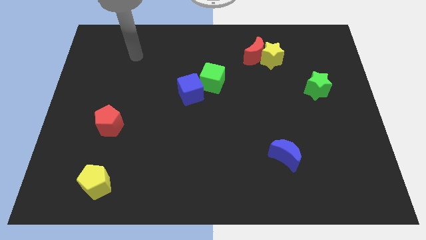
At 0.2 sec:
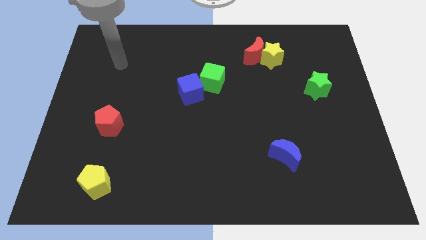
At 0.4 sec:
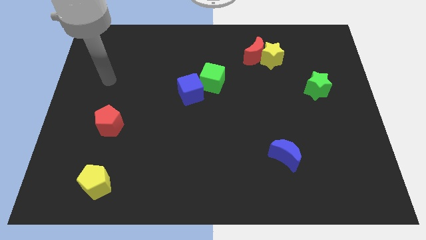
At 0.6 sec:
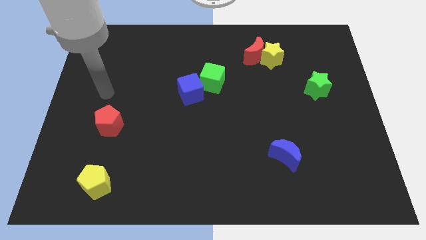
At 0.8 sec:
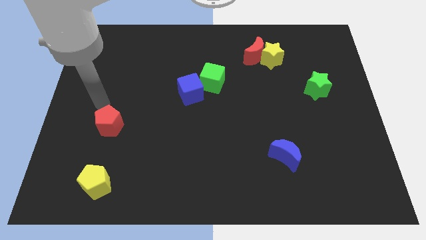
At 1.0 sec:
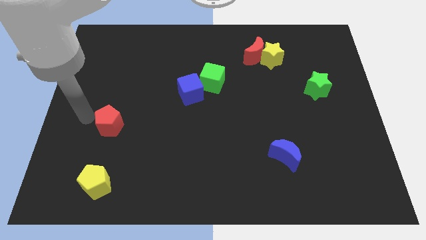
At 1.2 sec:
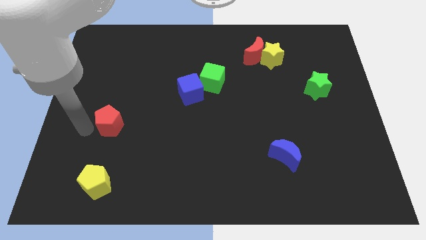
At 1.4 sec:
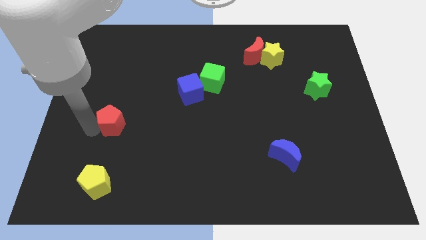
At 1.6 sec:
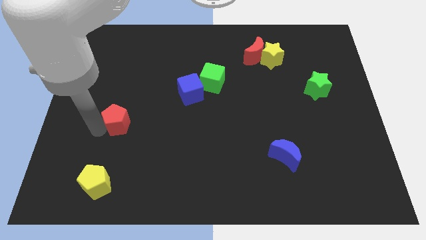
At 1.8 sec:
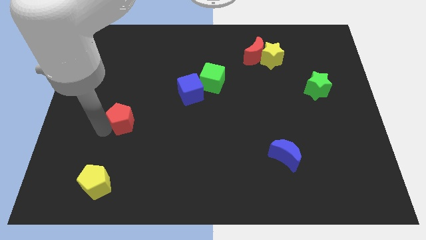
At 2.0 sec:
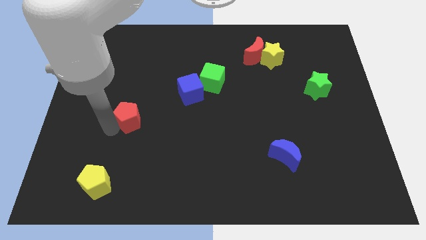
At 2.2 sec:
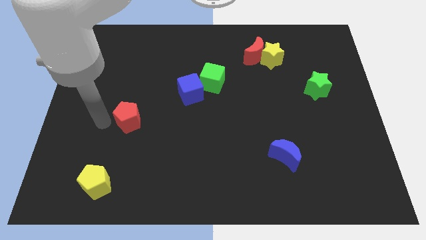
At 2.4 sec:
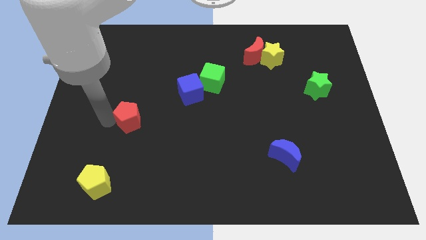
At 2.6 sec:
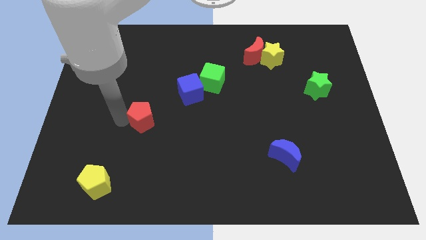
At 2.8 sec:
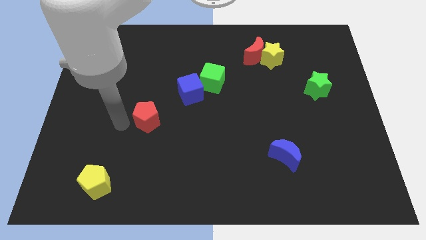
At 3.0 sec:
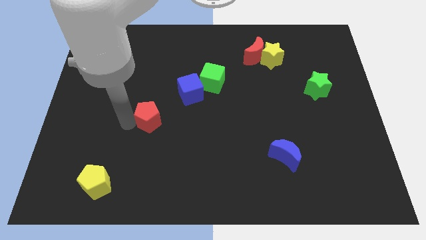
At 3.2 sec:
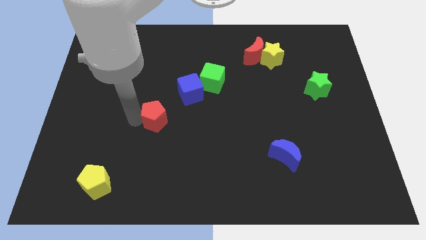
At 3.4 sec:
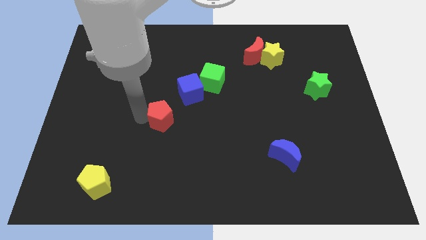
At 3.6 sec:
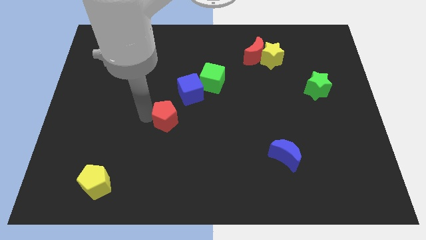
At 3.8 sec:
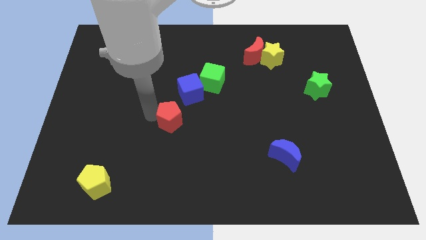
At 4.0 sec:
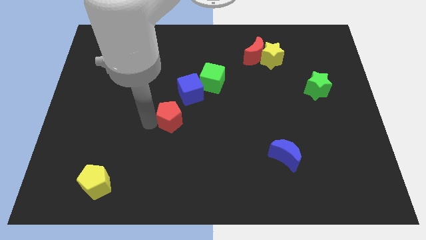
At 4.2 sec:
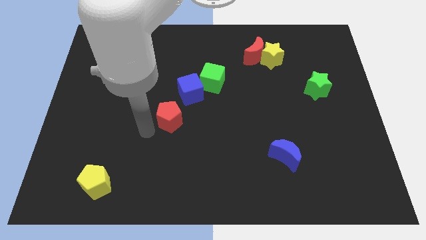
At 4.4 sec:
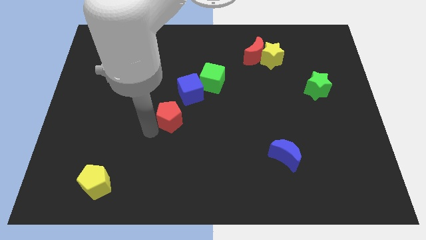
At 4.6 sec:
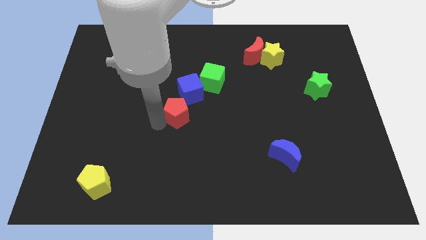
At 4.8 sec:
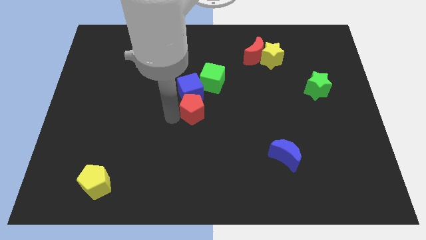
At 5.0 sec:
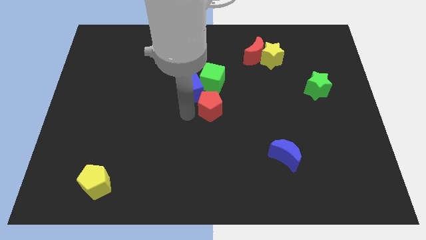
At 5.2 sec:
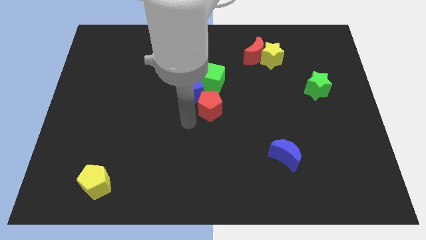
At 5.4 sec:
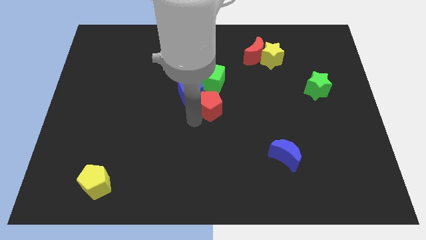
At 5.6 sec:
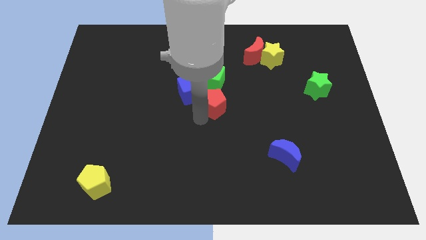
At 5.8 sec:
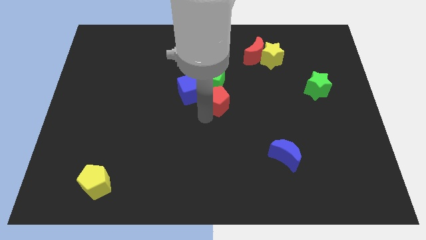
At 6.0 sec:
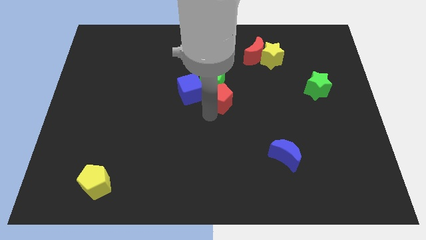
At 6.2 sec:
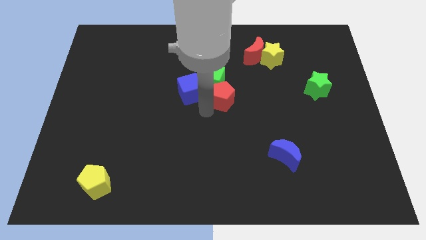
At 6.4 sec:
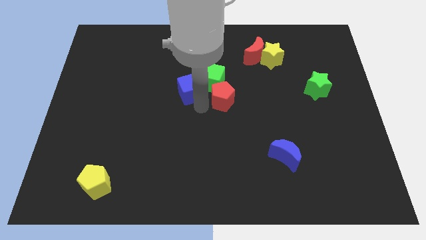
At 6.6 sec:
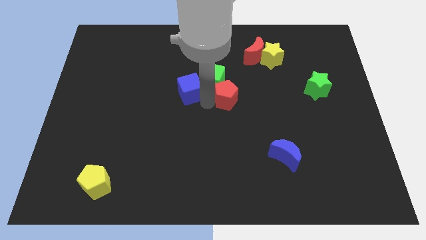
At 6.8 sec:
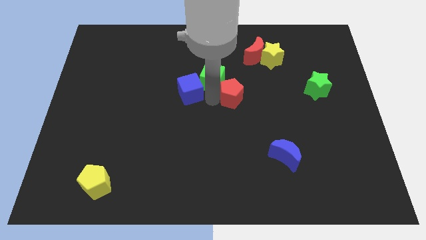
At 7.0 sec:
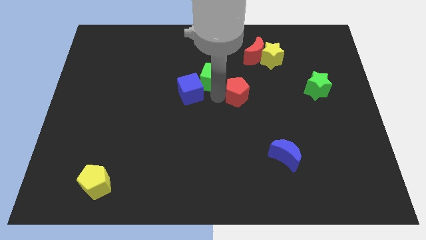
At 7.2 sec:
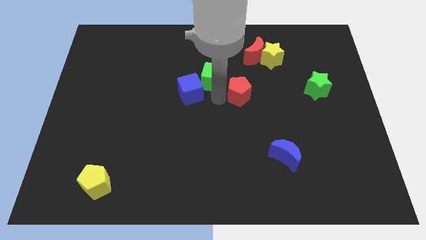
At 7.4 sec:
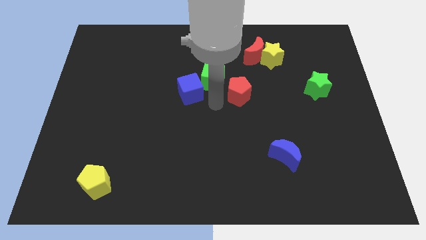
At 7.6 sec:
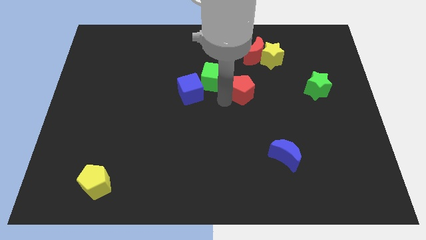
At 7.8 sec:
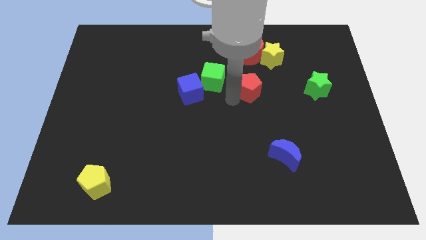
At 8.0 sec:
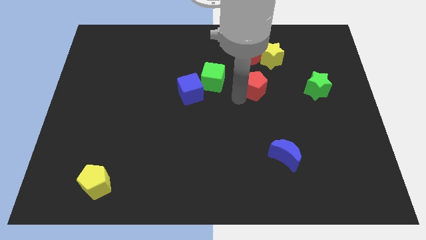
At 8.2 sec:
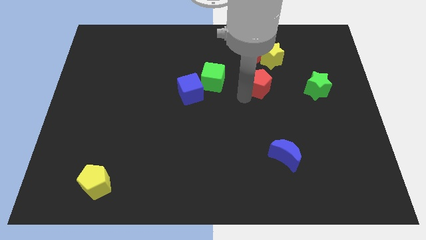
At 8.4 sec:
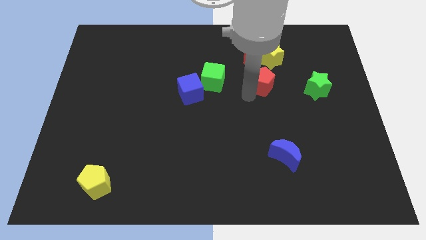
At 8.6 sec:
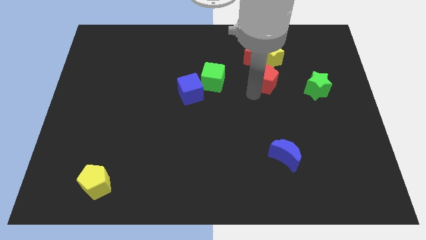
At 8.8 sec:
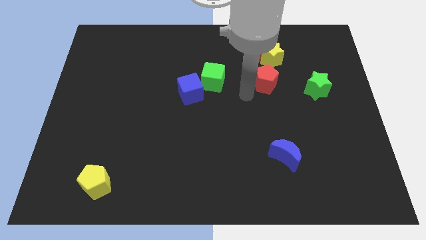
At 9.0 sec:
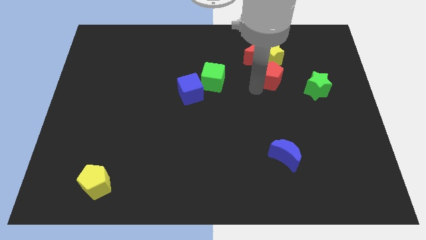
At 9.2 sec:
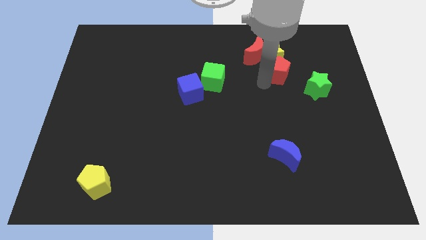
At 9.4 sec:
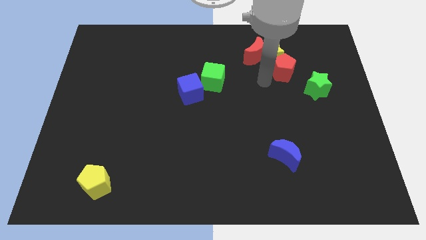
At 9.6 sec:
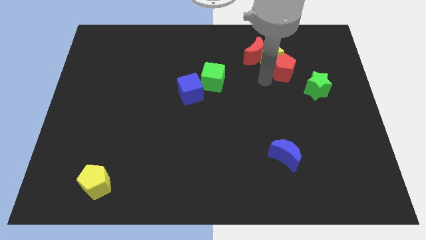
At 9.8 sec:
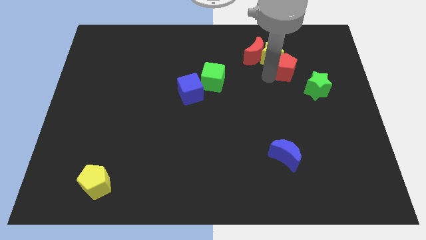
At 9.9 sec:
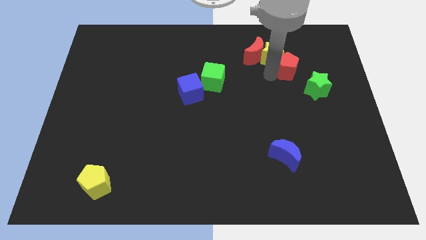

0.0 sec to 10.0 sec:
move the red pentagon just right of the yellow star

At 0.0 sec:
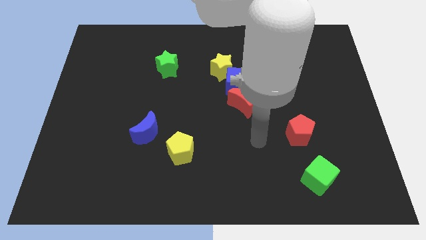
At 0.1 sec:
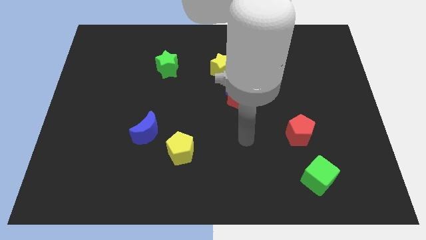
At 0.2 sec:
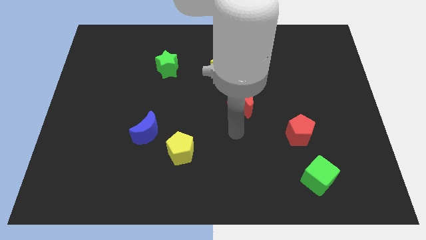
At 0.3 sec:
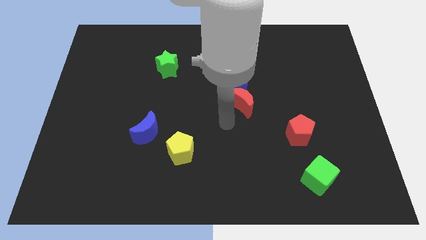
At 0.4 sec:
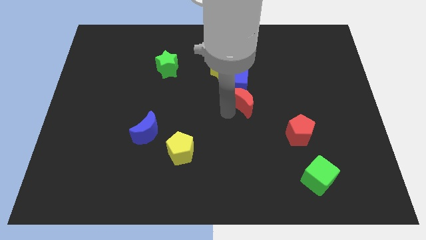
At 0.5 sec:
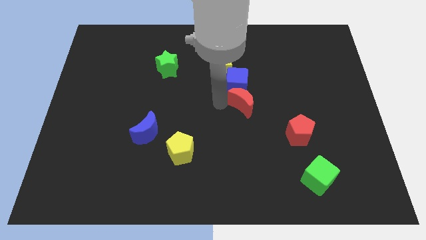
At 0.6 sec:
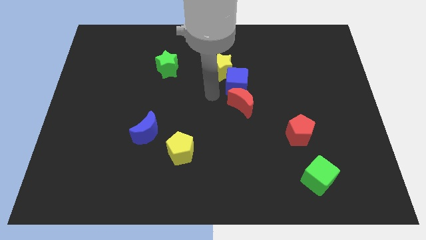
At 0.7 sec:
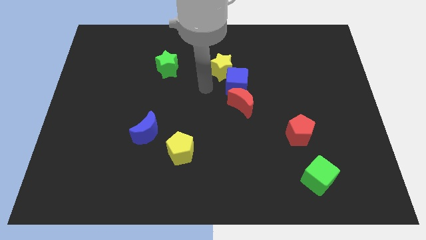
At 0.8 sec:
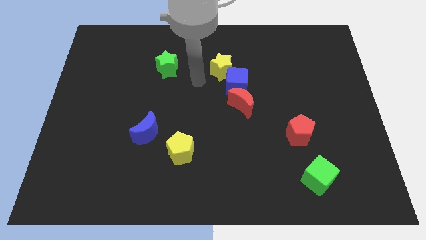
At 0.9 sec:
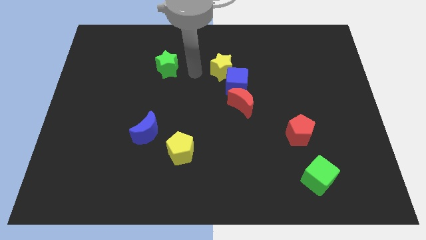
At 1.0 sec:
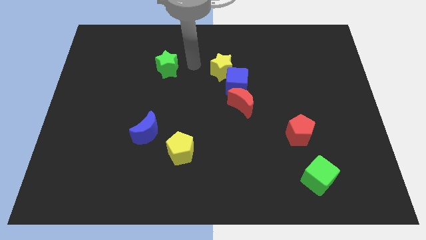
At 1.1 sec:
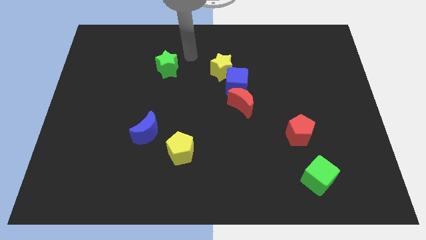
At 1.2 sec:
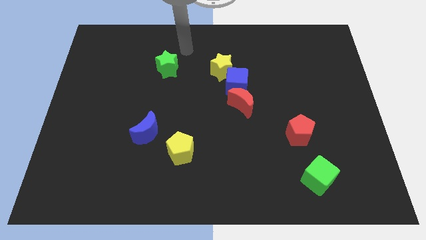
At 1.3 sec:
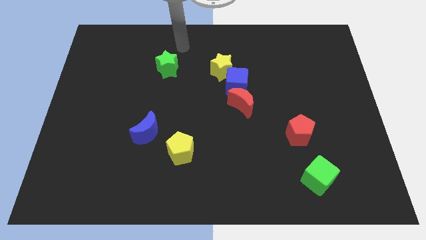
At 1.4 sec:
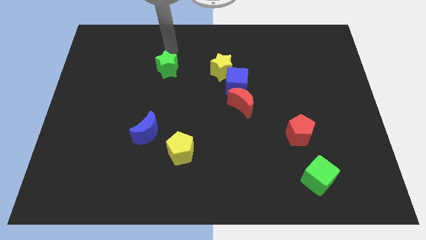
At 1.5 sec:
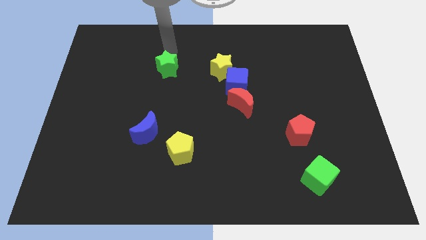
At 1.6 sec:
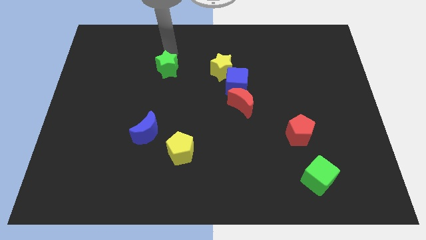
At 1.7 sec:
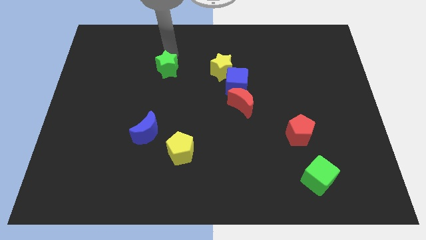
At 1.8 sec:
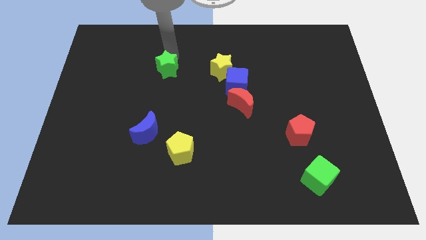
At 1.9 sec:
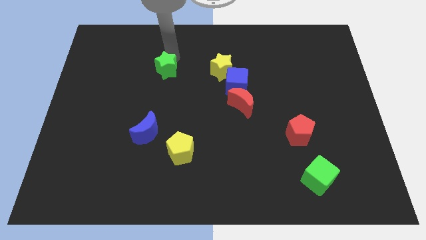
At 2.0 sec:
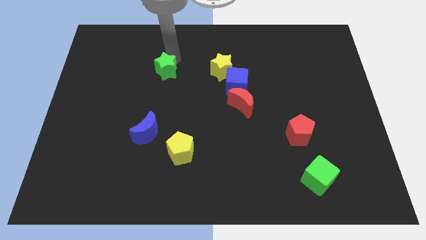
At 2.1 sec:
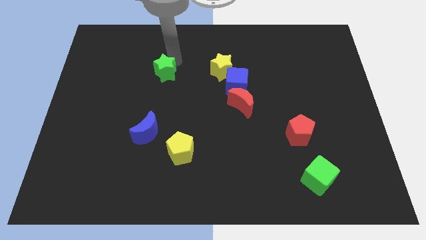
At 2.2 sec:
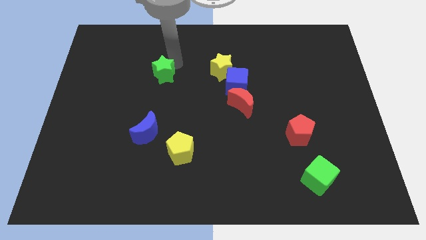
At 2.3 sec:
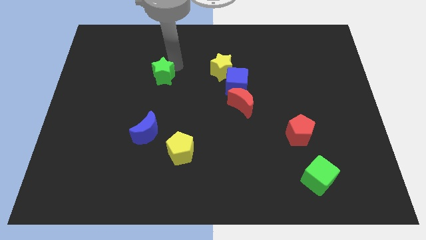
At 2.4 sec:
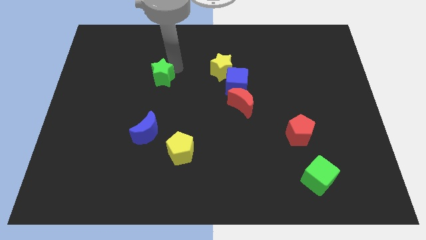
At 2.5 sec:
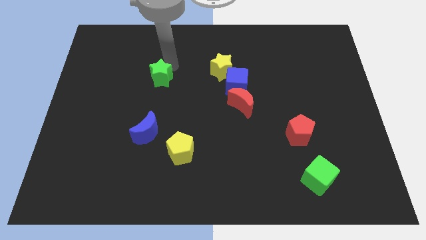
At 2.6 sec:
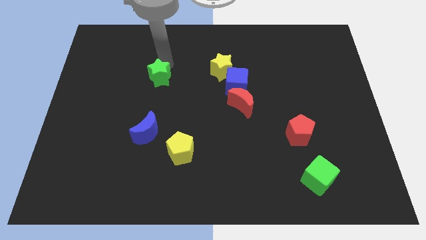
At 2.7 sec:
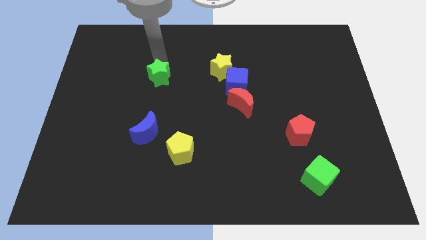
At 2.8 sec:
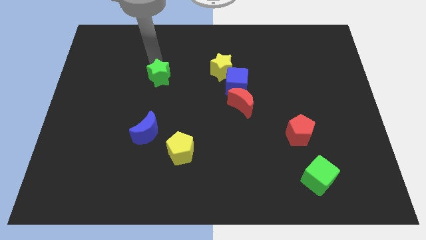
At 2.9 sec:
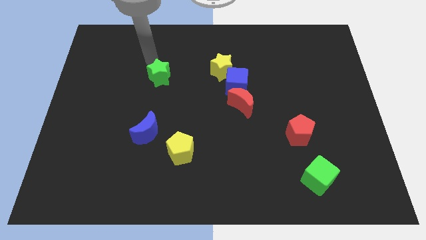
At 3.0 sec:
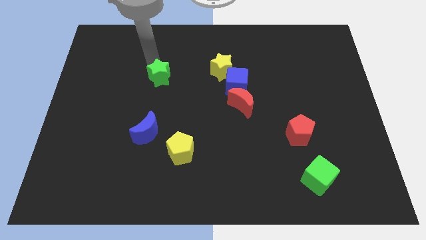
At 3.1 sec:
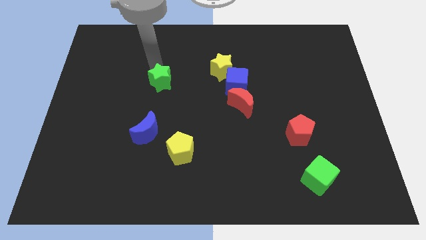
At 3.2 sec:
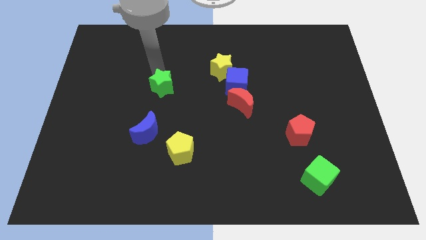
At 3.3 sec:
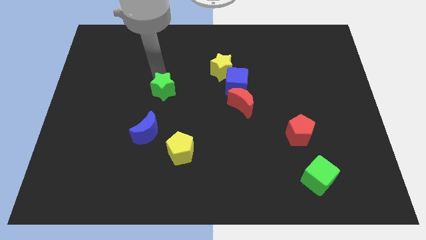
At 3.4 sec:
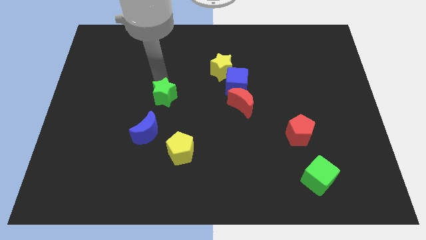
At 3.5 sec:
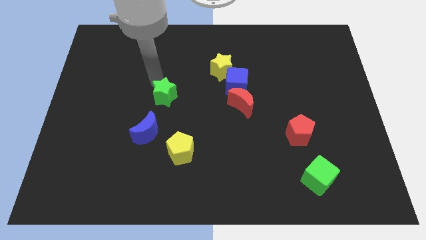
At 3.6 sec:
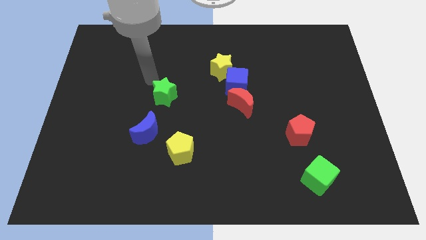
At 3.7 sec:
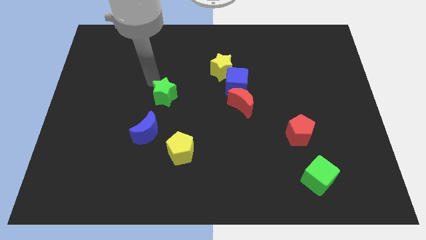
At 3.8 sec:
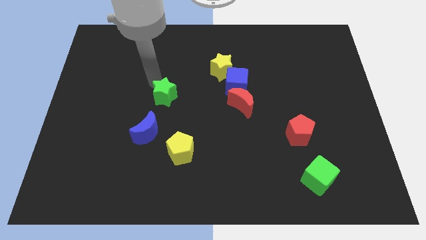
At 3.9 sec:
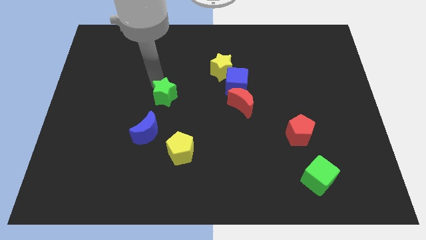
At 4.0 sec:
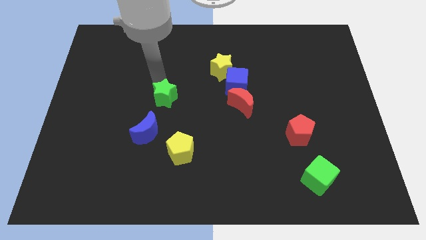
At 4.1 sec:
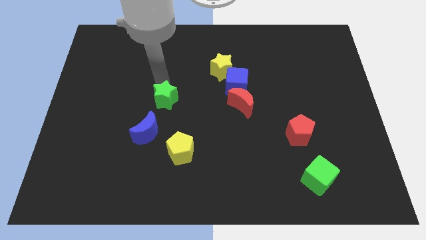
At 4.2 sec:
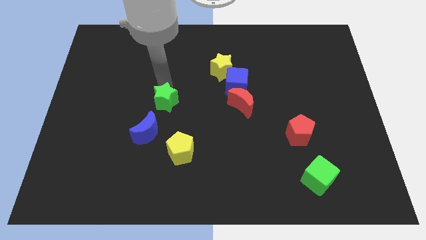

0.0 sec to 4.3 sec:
slide the green star to the top of the yellow pentagon
